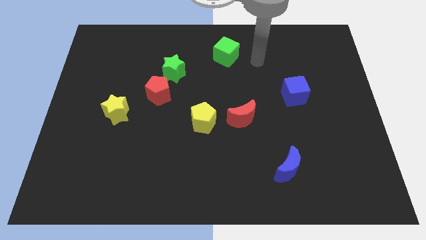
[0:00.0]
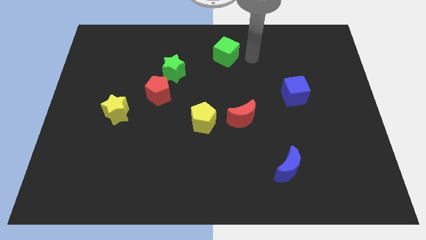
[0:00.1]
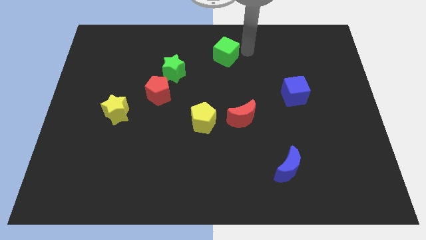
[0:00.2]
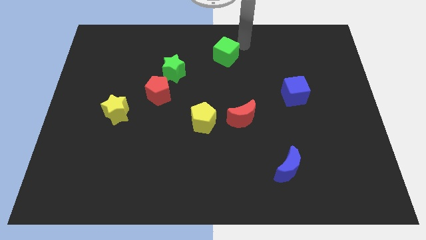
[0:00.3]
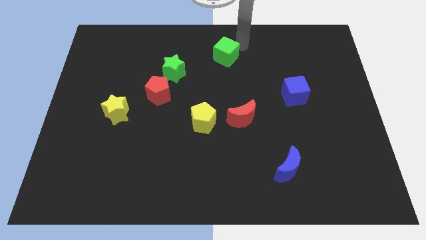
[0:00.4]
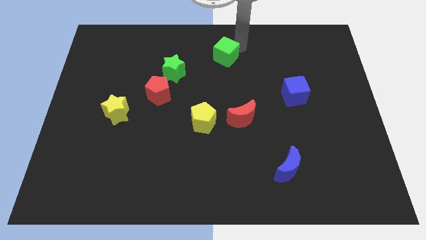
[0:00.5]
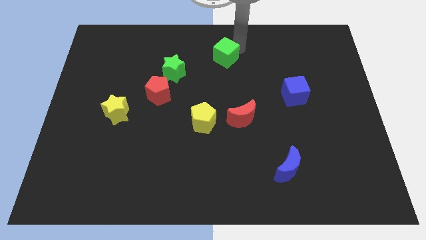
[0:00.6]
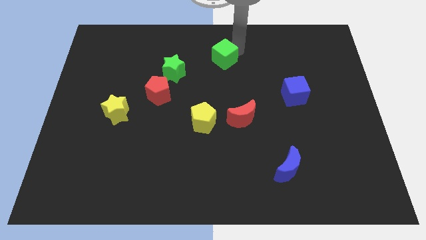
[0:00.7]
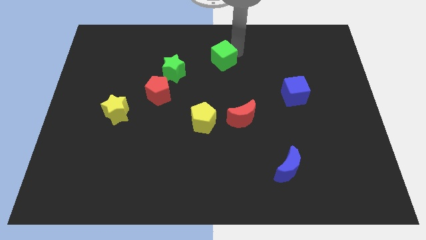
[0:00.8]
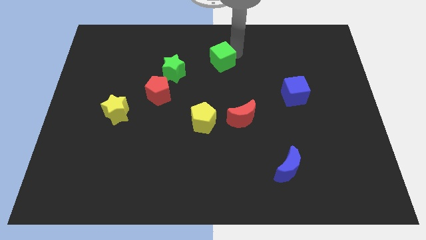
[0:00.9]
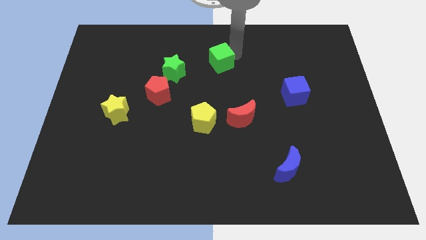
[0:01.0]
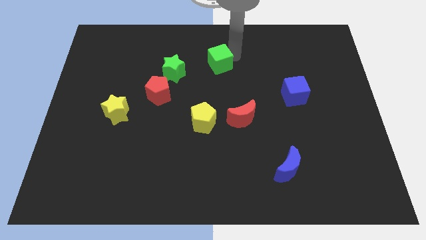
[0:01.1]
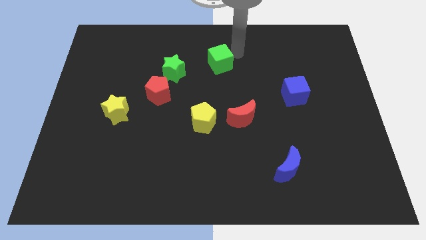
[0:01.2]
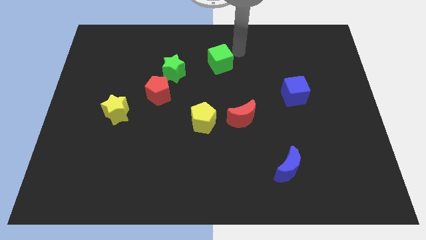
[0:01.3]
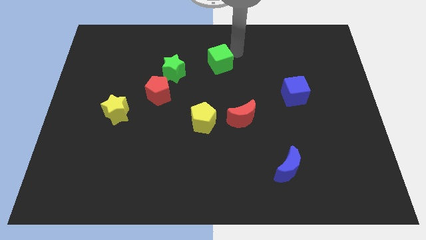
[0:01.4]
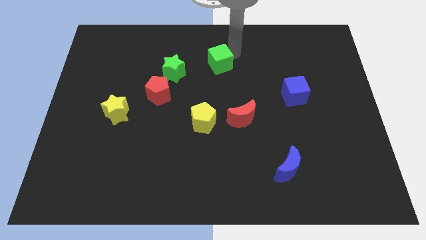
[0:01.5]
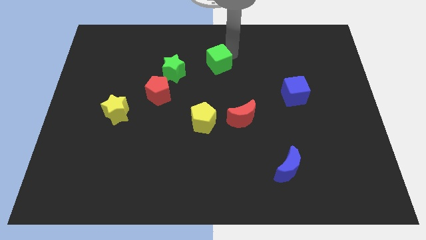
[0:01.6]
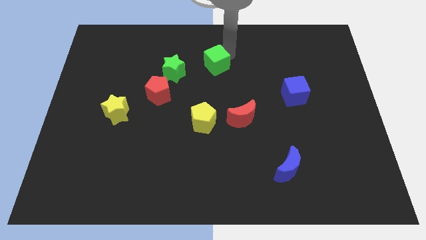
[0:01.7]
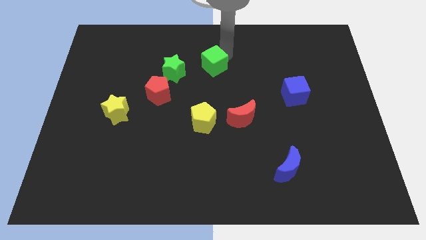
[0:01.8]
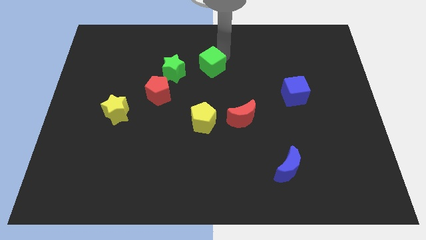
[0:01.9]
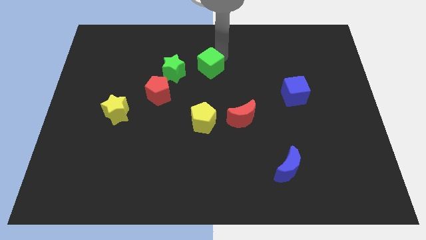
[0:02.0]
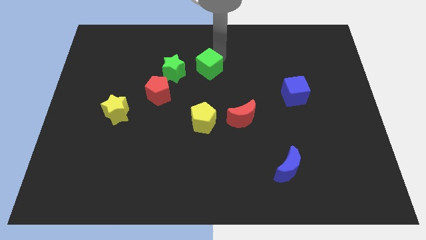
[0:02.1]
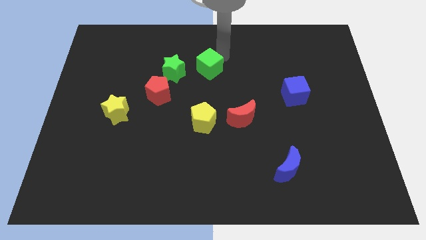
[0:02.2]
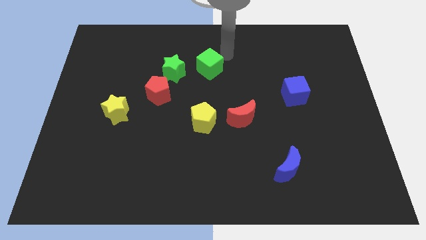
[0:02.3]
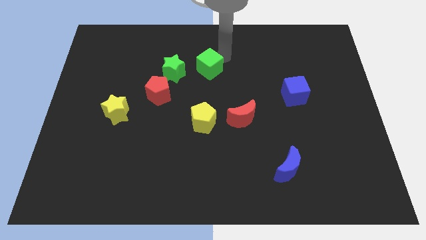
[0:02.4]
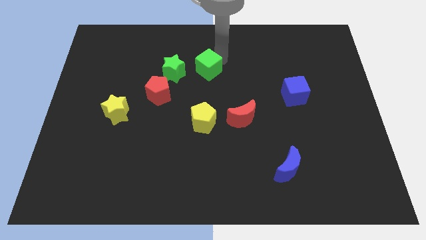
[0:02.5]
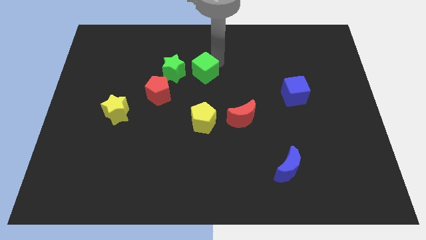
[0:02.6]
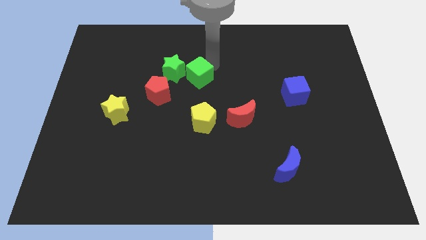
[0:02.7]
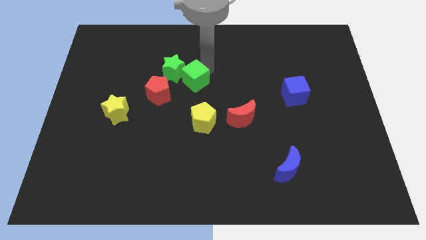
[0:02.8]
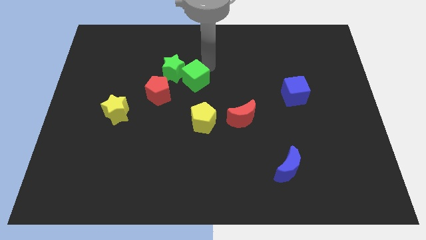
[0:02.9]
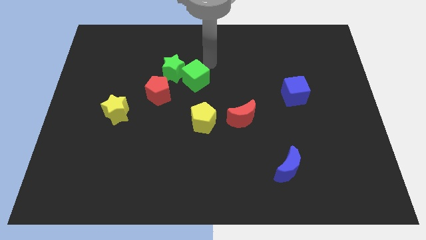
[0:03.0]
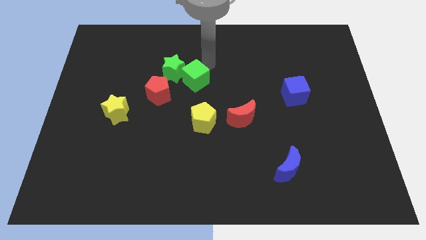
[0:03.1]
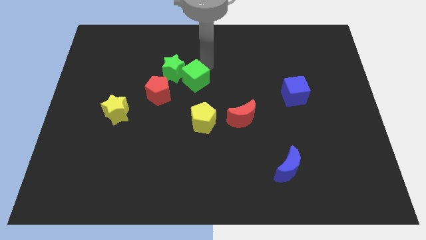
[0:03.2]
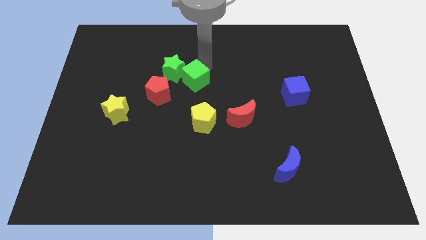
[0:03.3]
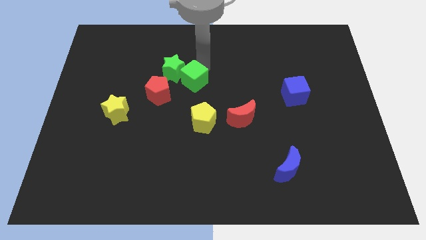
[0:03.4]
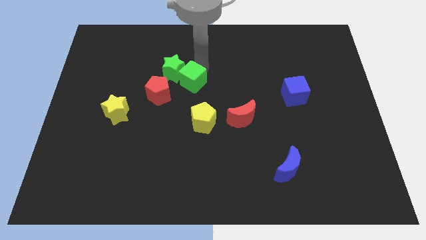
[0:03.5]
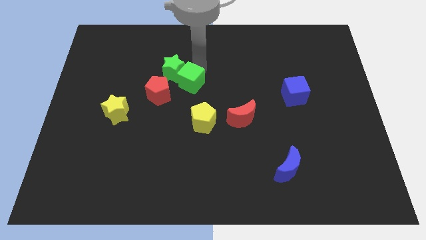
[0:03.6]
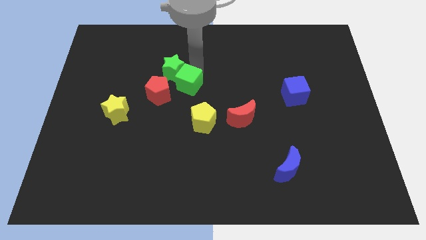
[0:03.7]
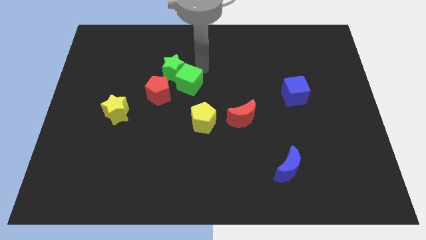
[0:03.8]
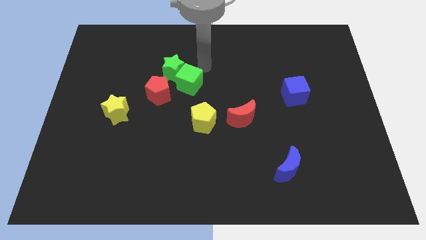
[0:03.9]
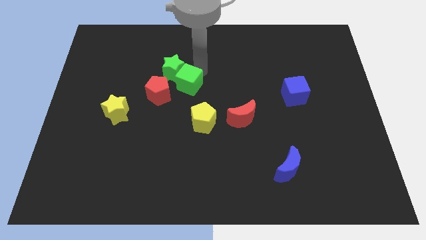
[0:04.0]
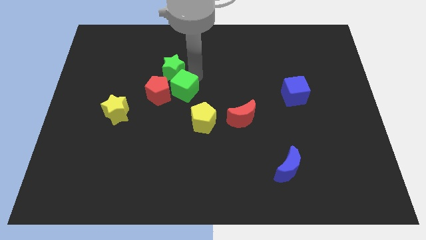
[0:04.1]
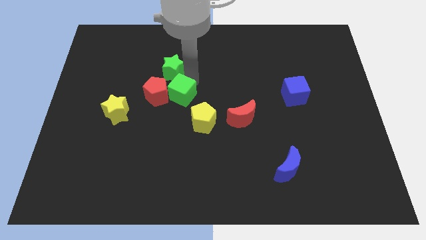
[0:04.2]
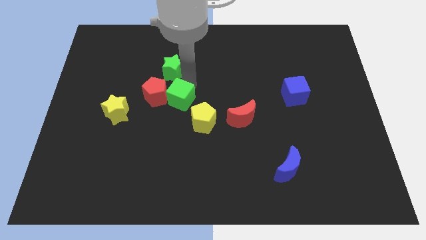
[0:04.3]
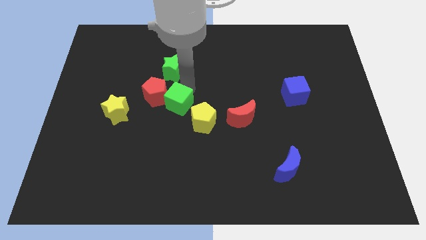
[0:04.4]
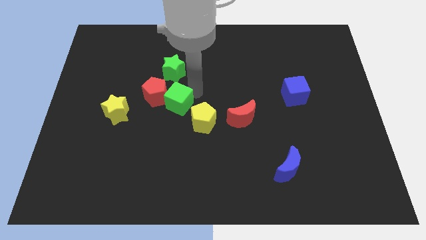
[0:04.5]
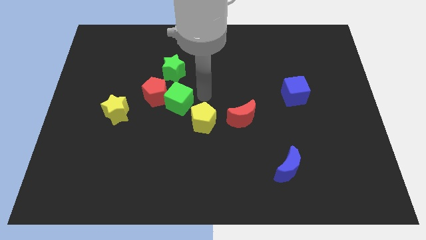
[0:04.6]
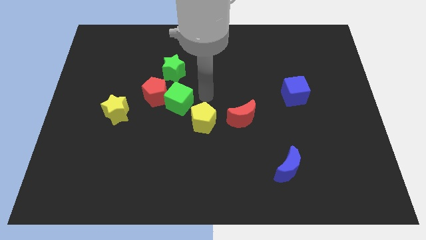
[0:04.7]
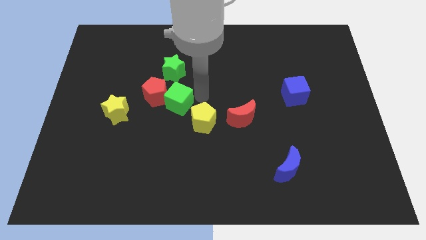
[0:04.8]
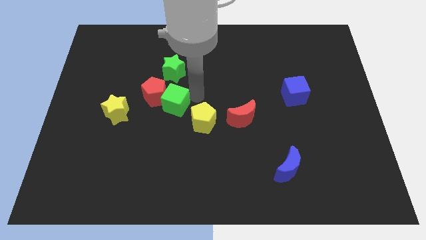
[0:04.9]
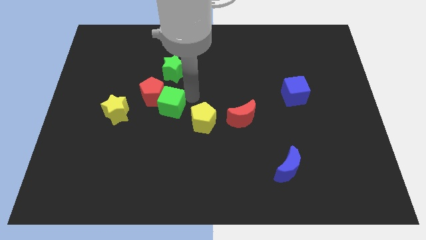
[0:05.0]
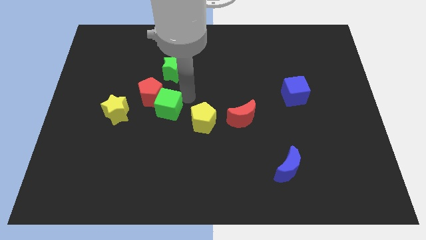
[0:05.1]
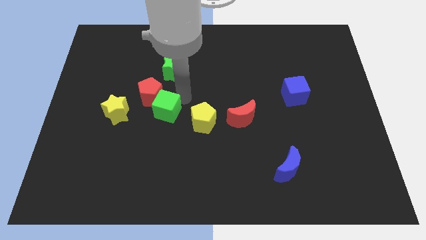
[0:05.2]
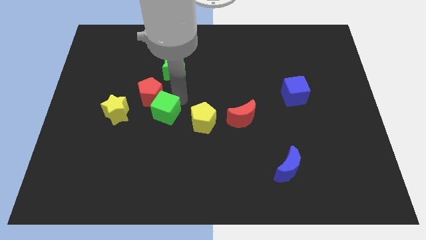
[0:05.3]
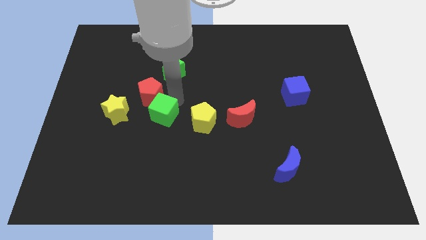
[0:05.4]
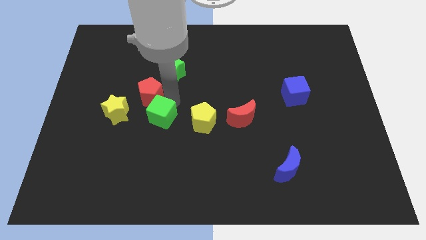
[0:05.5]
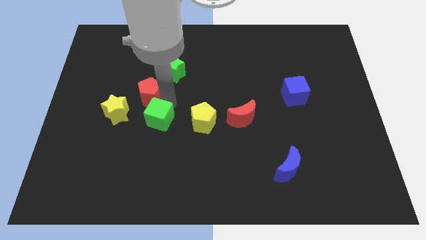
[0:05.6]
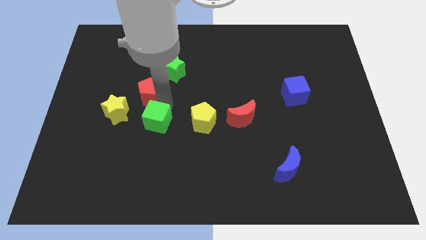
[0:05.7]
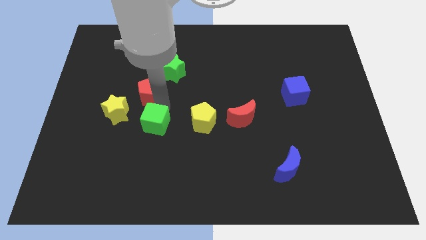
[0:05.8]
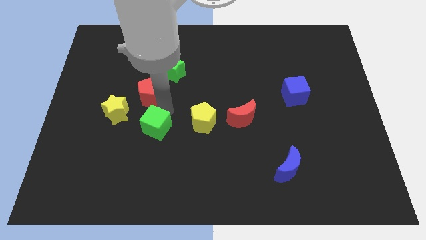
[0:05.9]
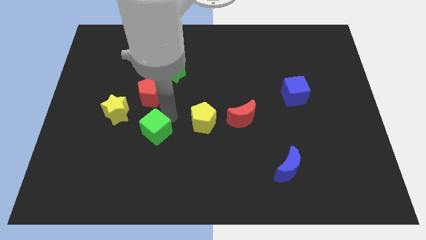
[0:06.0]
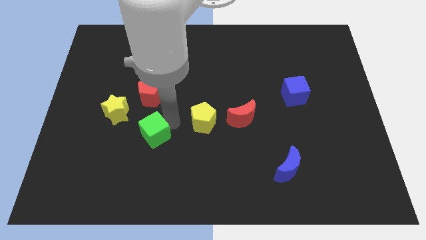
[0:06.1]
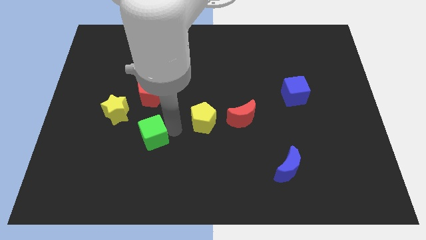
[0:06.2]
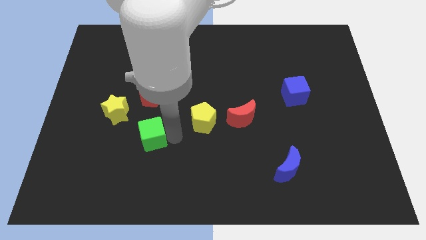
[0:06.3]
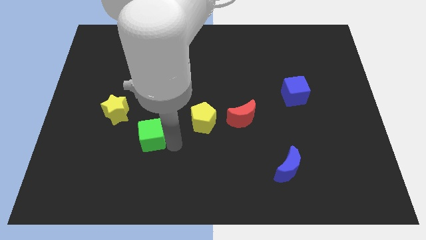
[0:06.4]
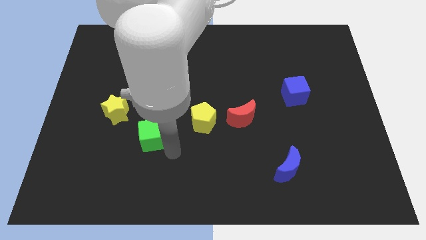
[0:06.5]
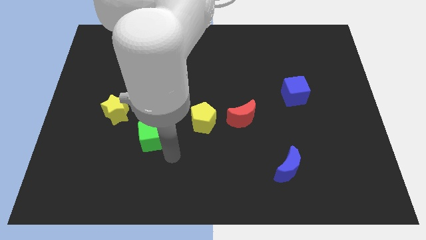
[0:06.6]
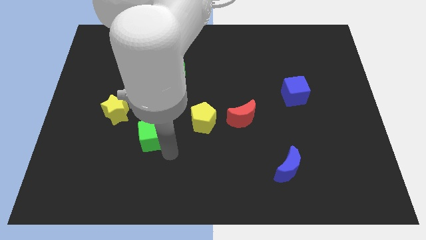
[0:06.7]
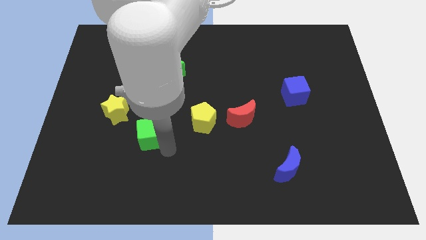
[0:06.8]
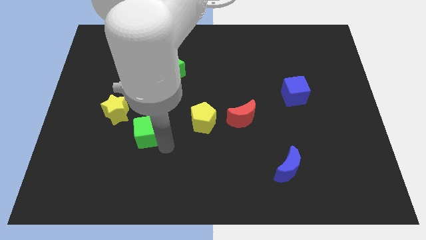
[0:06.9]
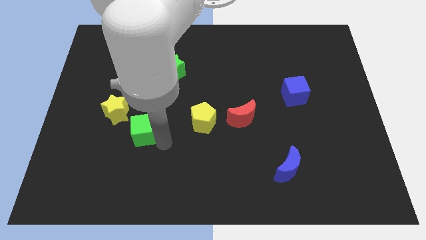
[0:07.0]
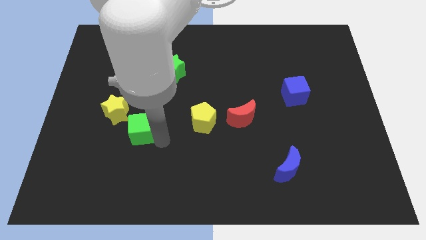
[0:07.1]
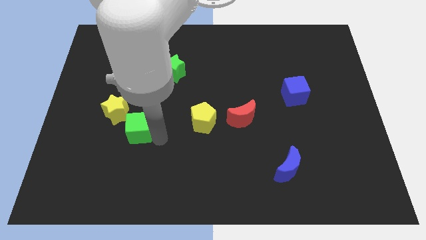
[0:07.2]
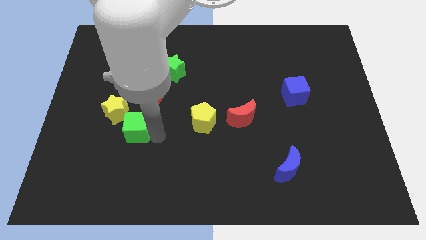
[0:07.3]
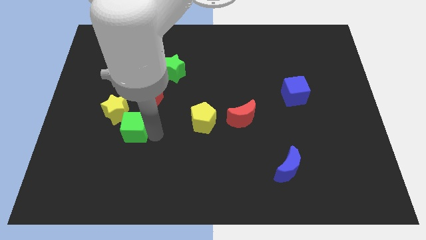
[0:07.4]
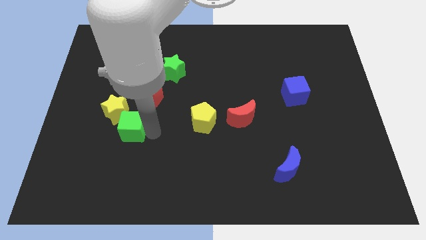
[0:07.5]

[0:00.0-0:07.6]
put the green cube to the bottom left of the red pentagon
